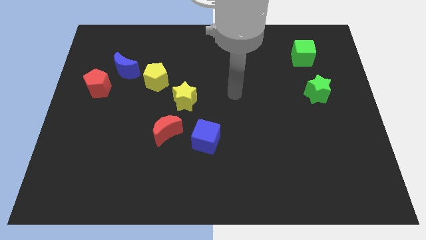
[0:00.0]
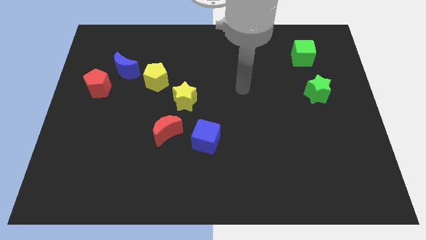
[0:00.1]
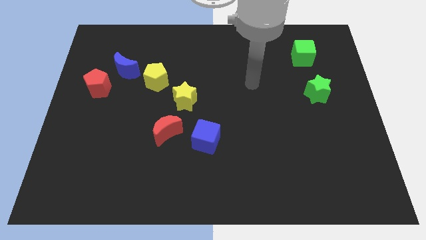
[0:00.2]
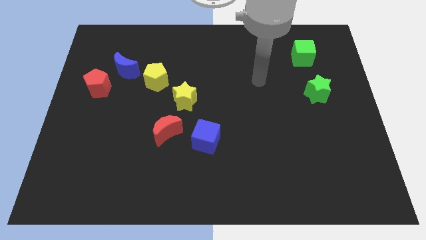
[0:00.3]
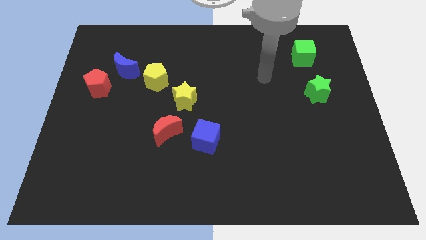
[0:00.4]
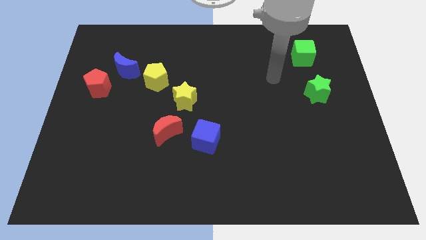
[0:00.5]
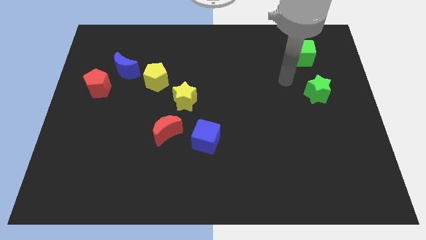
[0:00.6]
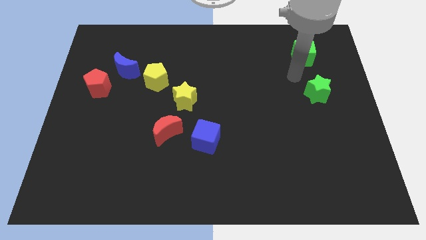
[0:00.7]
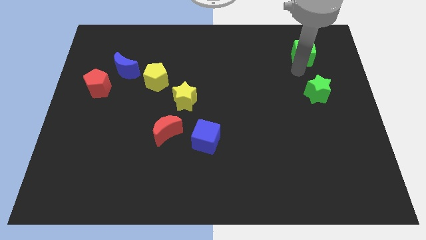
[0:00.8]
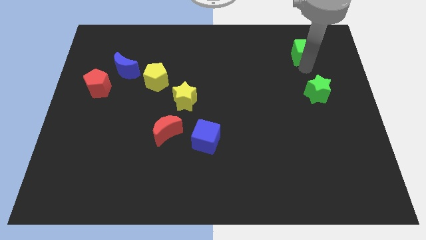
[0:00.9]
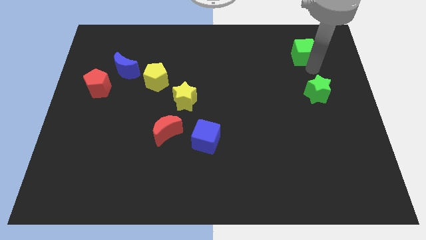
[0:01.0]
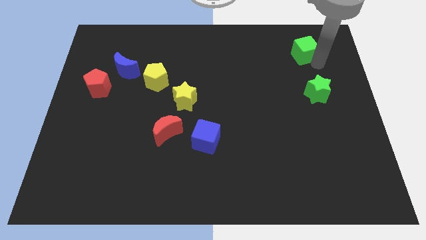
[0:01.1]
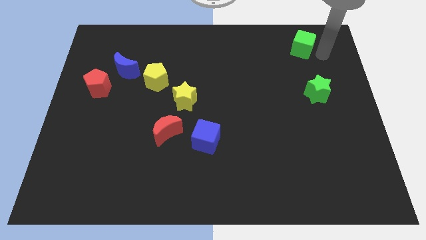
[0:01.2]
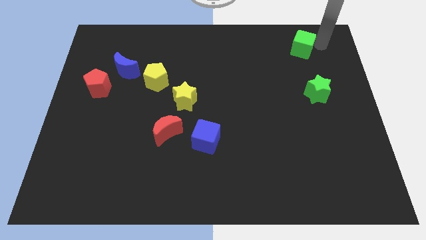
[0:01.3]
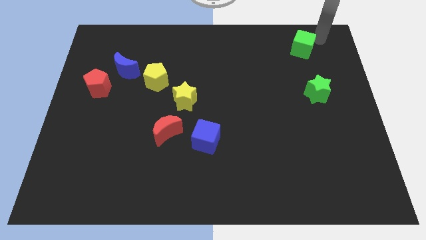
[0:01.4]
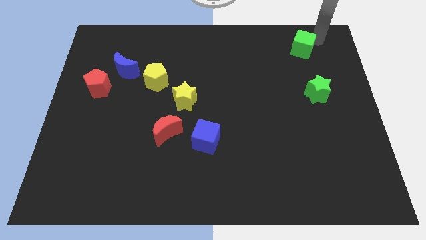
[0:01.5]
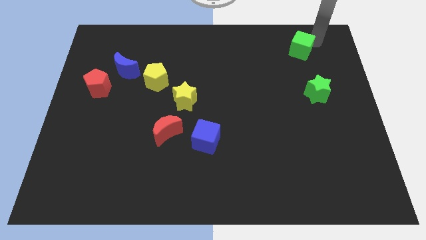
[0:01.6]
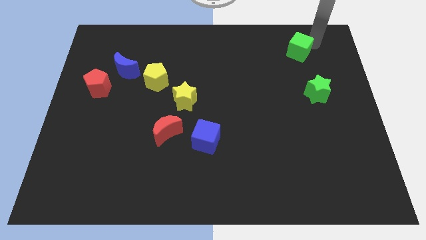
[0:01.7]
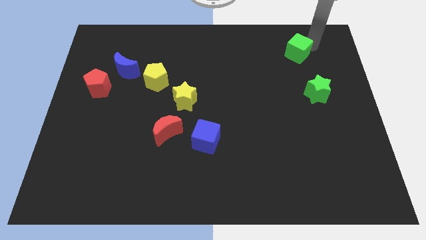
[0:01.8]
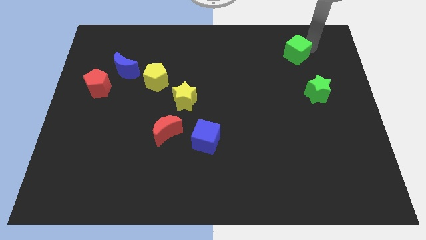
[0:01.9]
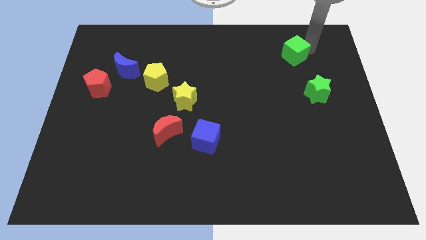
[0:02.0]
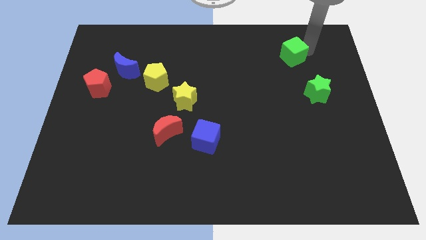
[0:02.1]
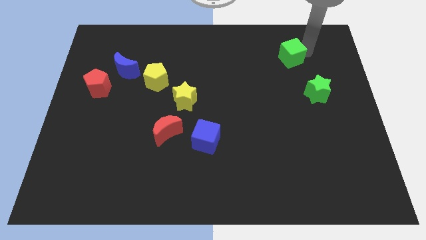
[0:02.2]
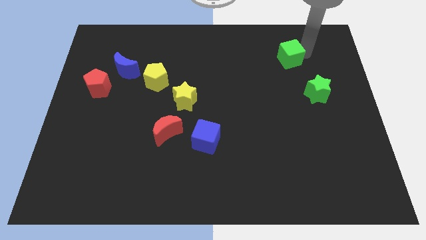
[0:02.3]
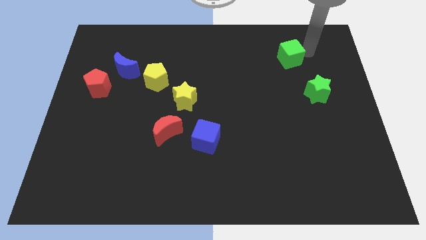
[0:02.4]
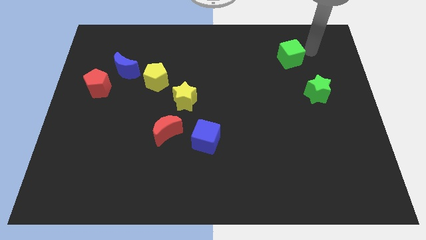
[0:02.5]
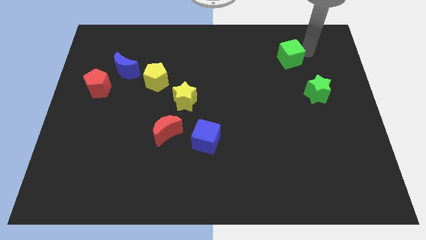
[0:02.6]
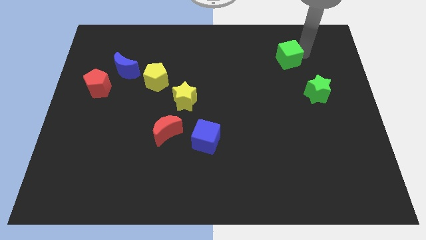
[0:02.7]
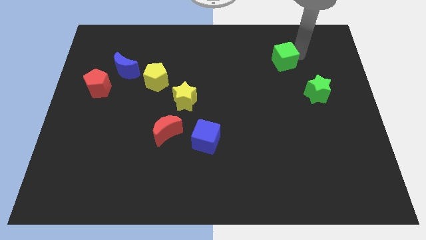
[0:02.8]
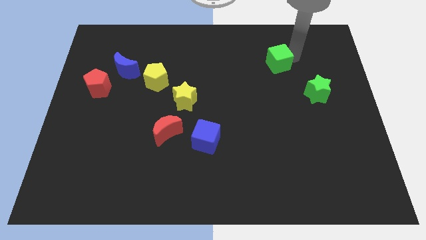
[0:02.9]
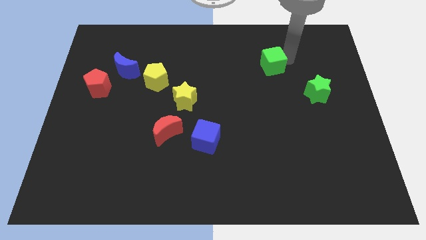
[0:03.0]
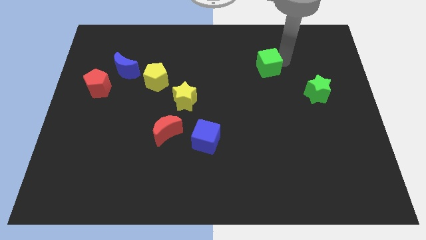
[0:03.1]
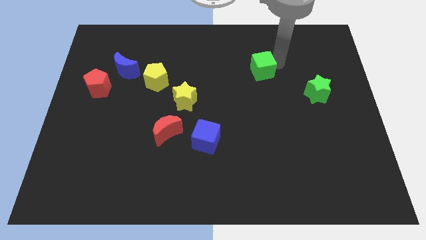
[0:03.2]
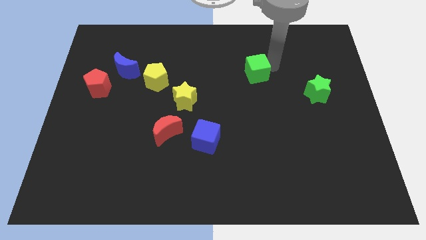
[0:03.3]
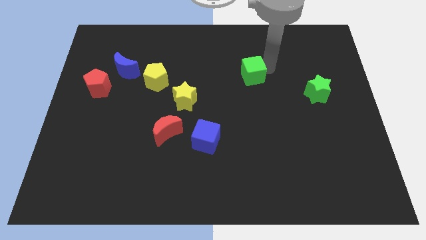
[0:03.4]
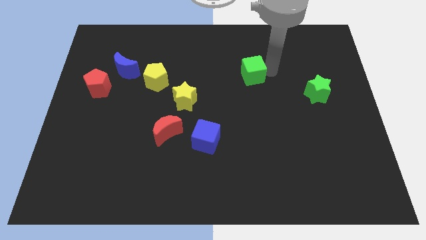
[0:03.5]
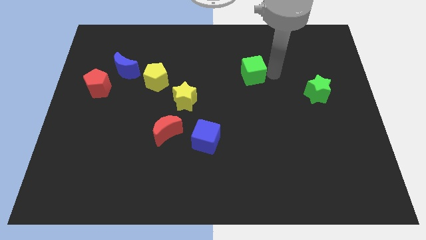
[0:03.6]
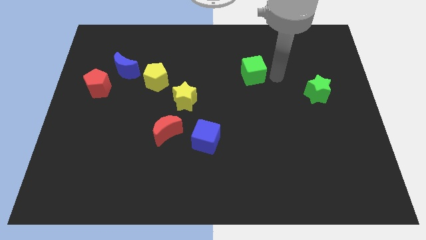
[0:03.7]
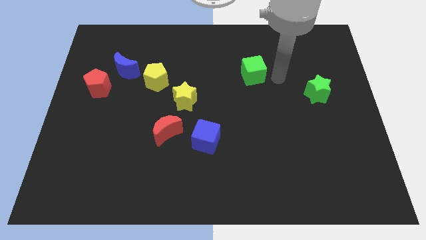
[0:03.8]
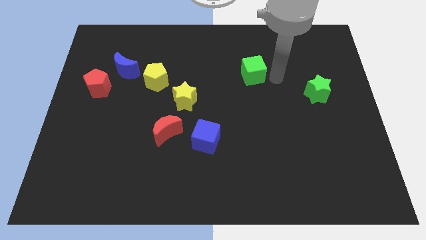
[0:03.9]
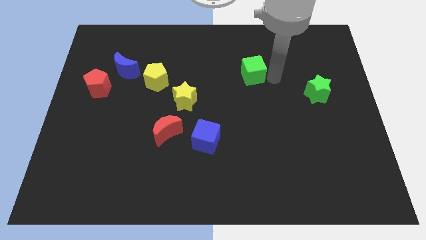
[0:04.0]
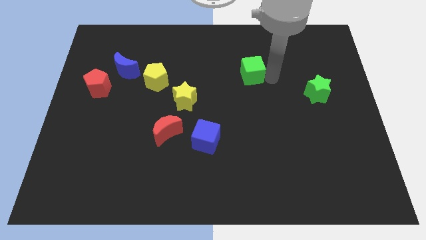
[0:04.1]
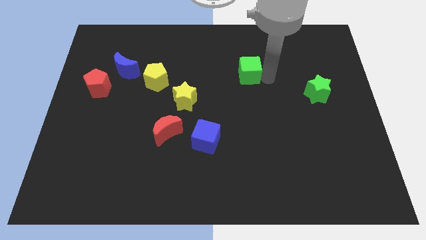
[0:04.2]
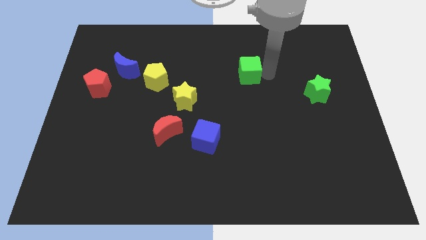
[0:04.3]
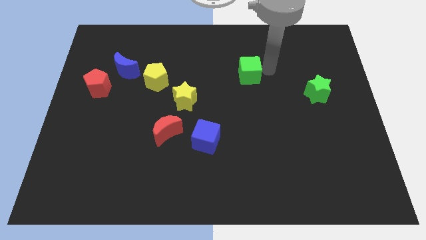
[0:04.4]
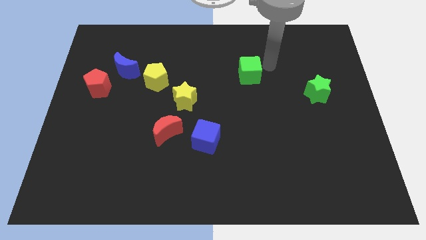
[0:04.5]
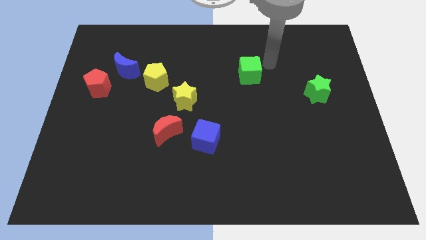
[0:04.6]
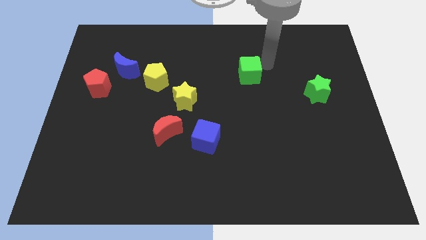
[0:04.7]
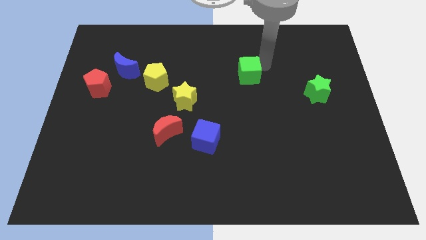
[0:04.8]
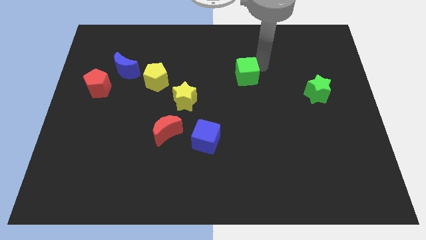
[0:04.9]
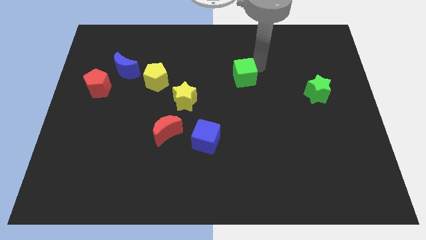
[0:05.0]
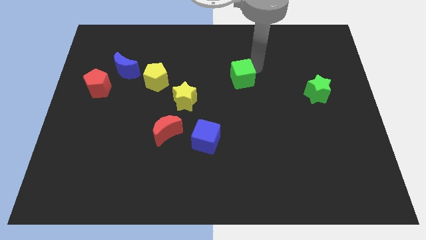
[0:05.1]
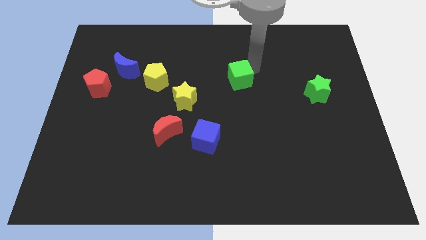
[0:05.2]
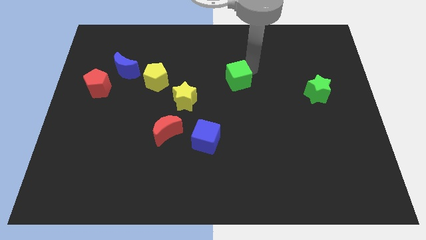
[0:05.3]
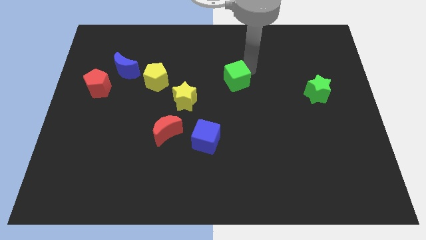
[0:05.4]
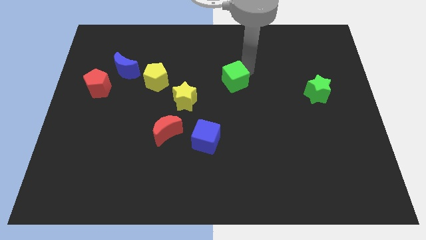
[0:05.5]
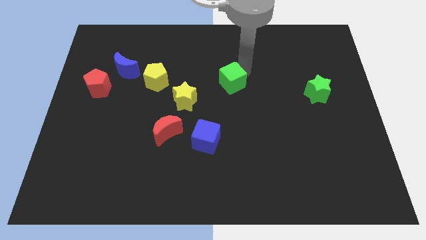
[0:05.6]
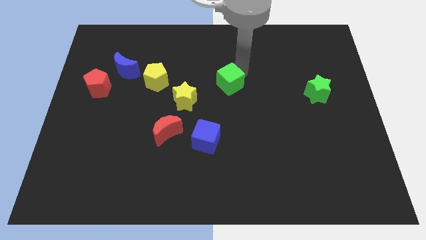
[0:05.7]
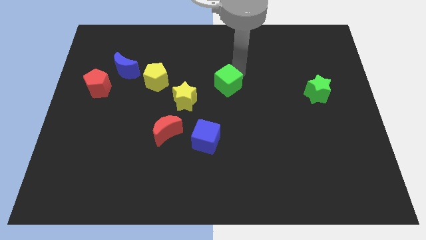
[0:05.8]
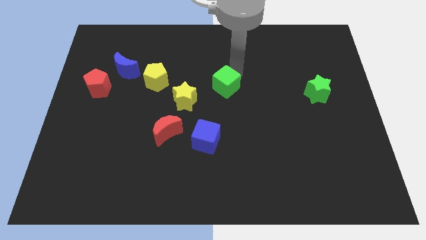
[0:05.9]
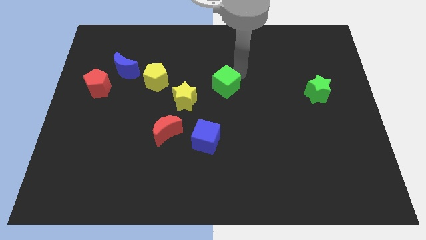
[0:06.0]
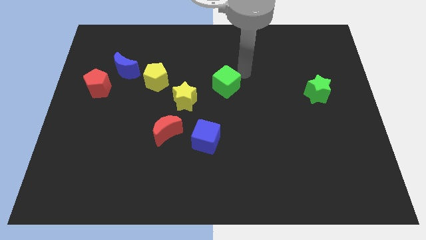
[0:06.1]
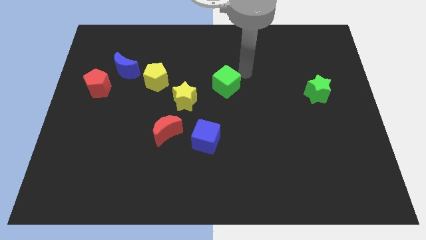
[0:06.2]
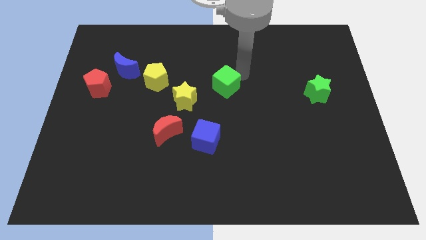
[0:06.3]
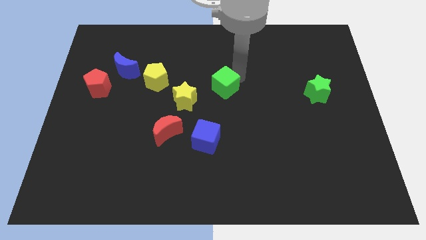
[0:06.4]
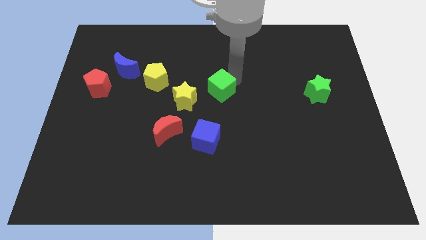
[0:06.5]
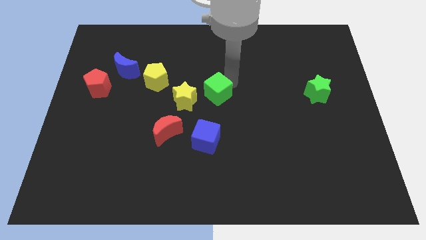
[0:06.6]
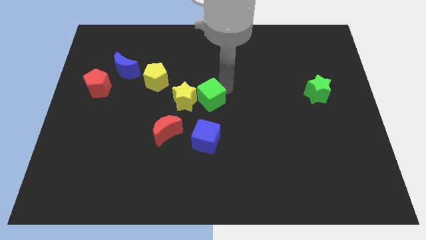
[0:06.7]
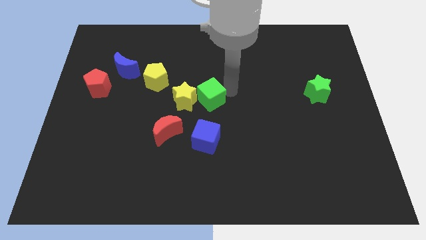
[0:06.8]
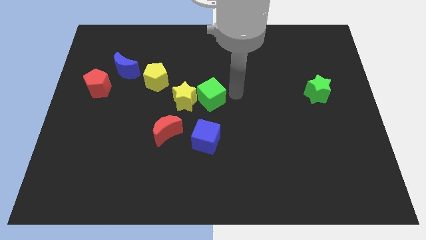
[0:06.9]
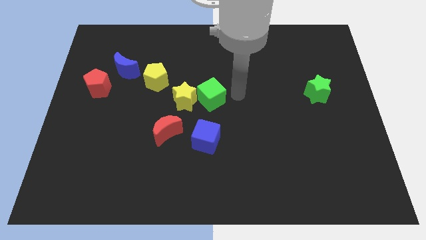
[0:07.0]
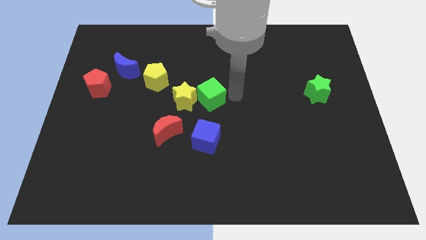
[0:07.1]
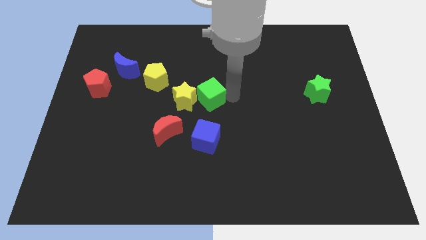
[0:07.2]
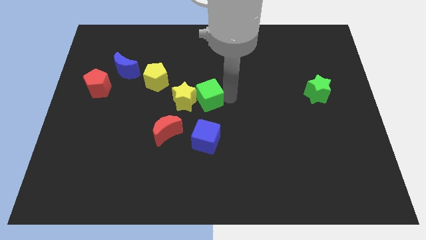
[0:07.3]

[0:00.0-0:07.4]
move the green cube to the yellow star

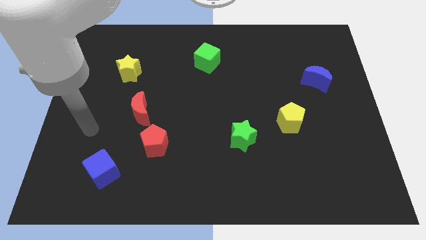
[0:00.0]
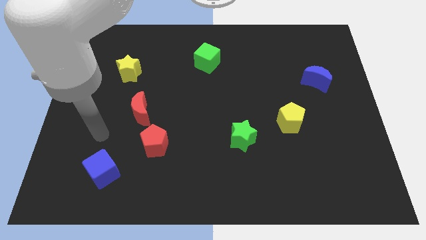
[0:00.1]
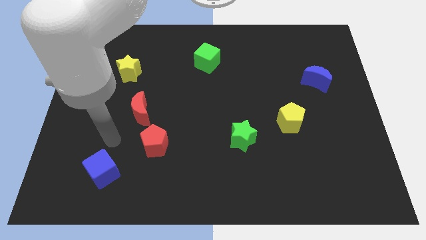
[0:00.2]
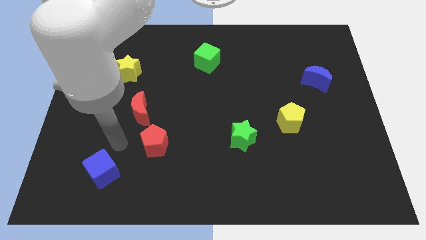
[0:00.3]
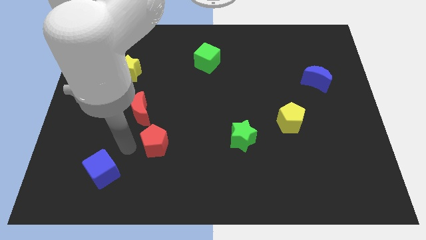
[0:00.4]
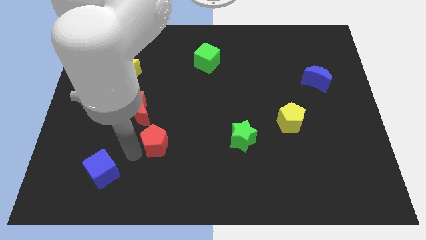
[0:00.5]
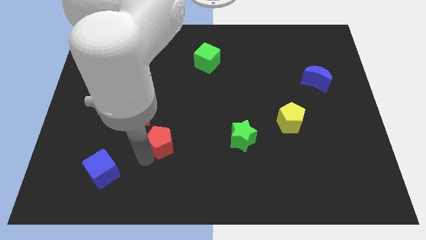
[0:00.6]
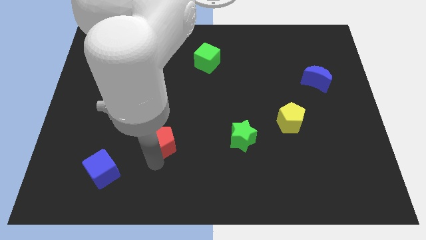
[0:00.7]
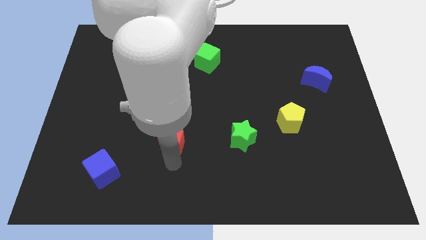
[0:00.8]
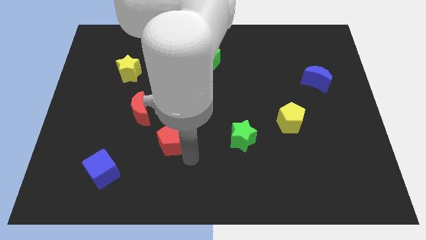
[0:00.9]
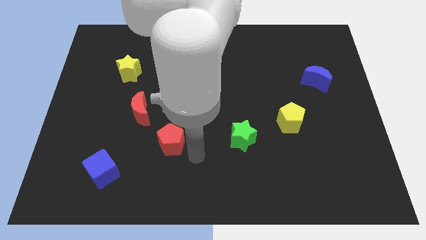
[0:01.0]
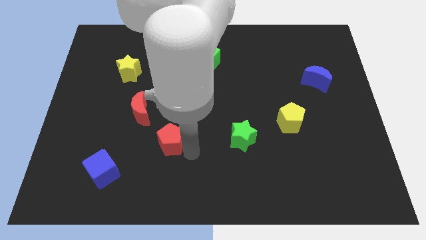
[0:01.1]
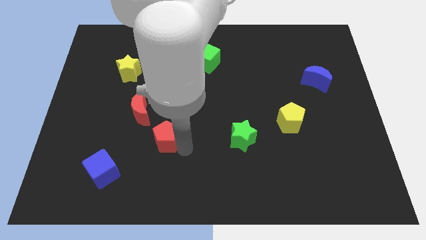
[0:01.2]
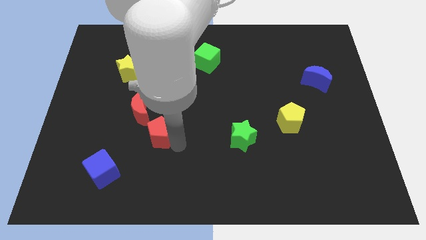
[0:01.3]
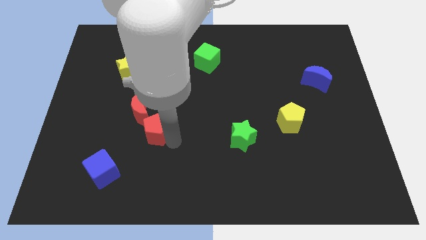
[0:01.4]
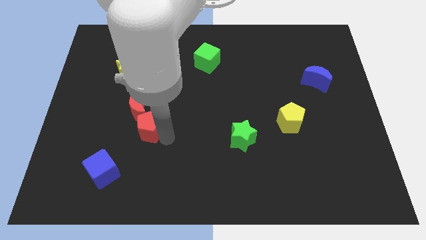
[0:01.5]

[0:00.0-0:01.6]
push the red pentagon towards the red moon
